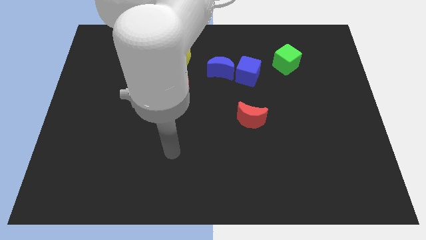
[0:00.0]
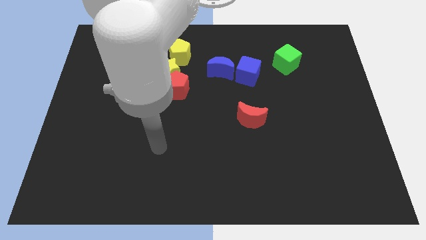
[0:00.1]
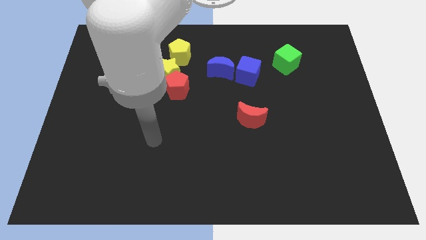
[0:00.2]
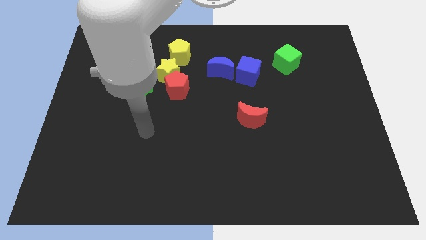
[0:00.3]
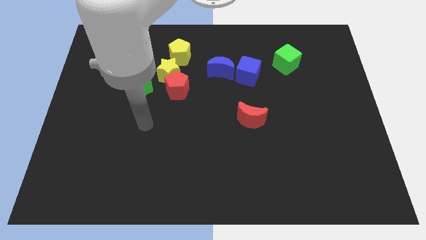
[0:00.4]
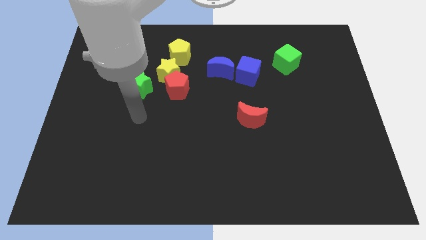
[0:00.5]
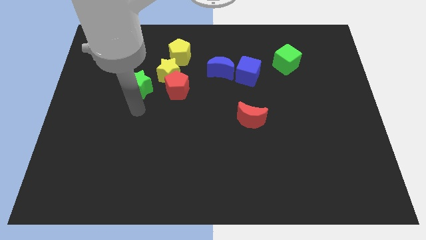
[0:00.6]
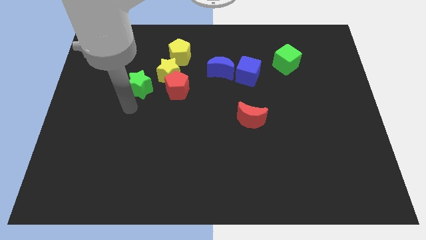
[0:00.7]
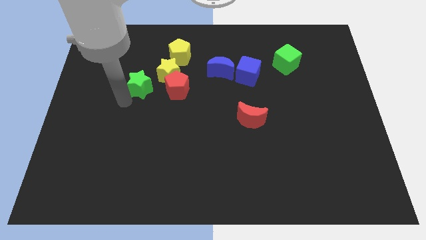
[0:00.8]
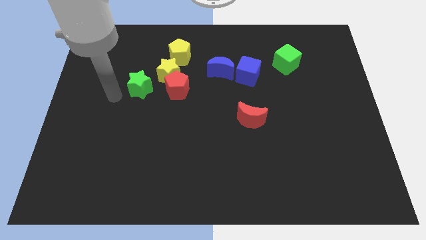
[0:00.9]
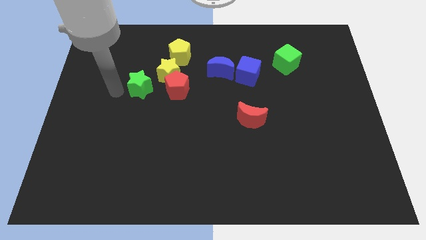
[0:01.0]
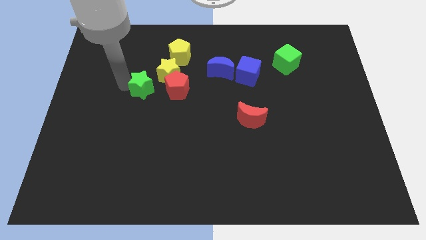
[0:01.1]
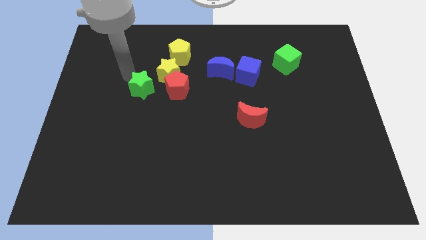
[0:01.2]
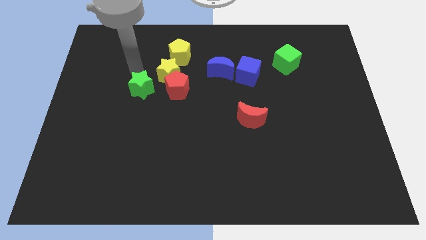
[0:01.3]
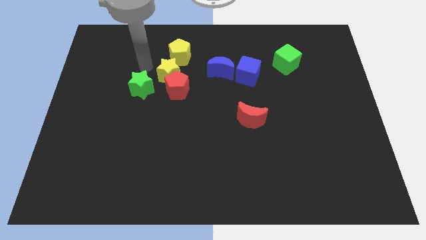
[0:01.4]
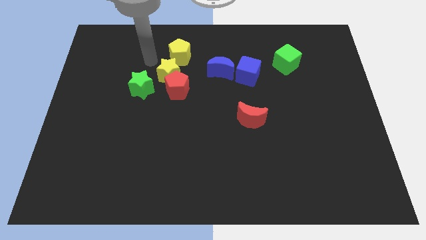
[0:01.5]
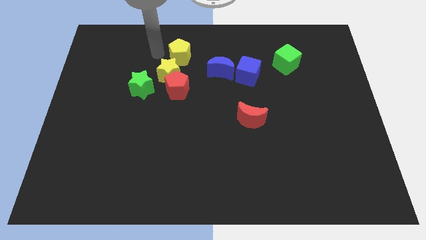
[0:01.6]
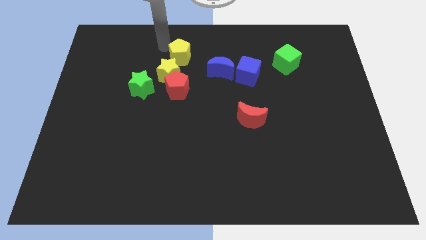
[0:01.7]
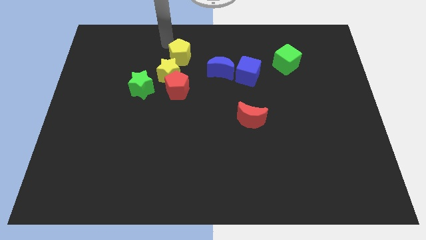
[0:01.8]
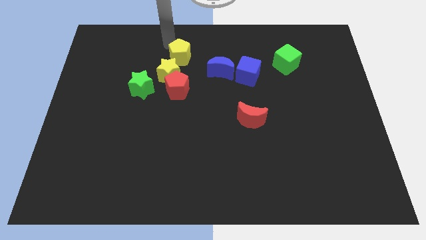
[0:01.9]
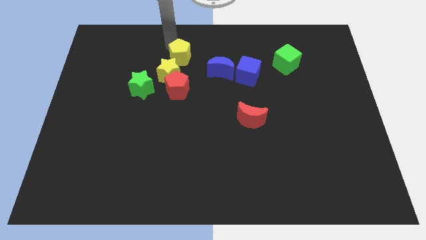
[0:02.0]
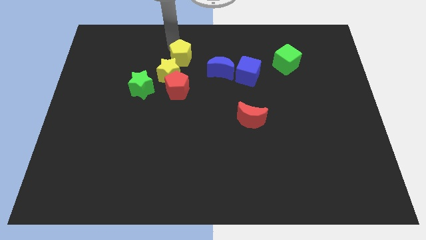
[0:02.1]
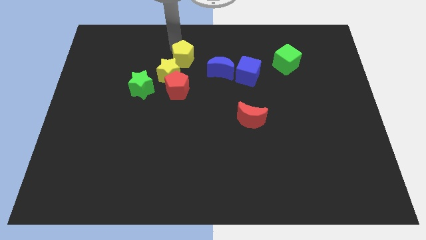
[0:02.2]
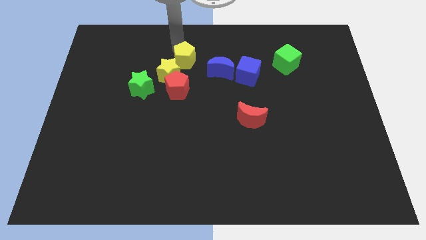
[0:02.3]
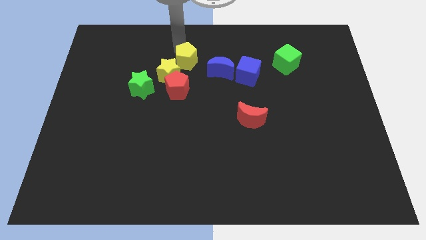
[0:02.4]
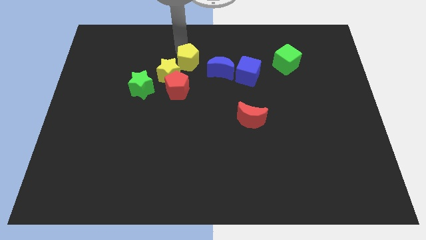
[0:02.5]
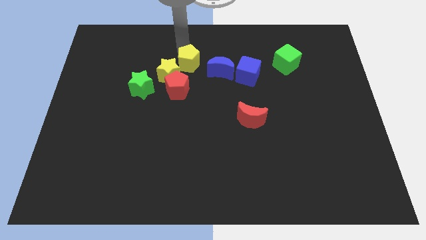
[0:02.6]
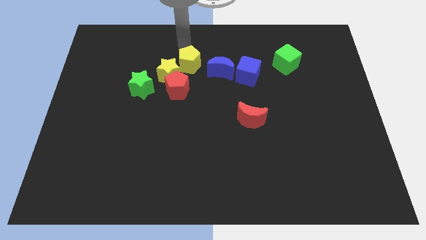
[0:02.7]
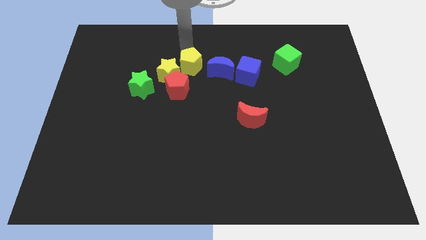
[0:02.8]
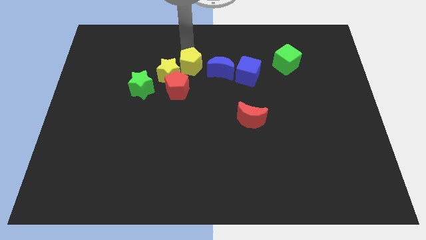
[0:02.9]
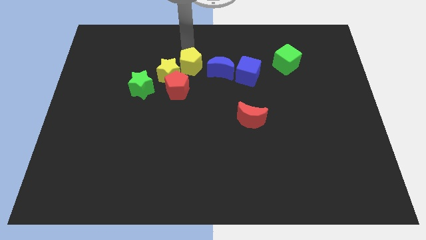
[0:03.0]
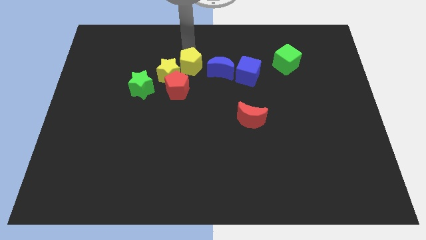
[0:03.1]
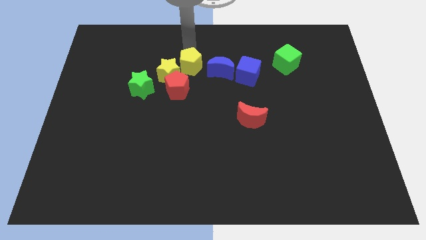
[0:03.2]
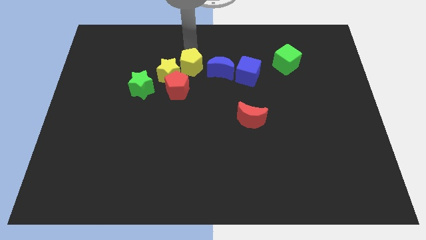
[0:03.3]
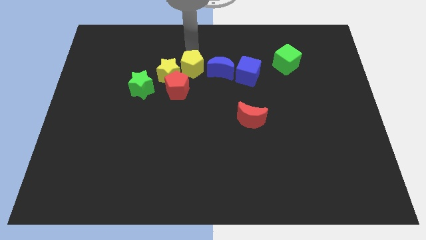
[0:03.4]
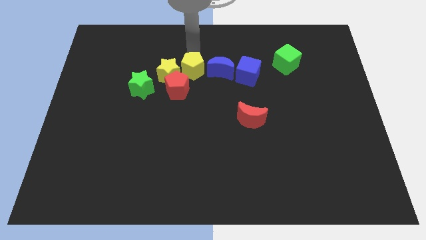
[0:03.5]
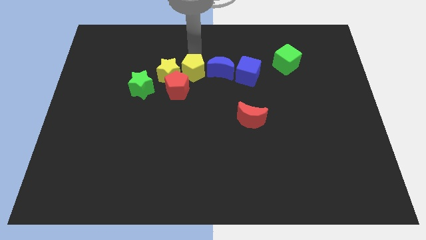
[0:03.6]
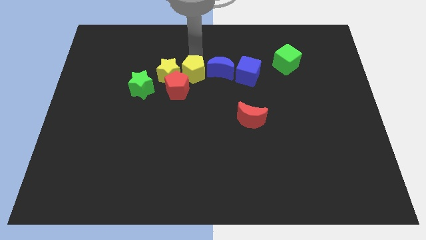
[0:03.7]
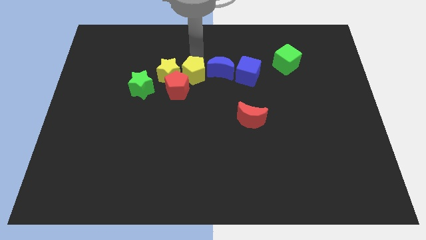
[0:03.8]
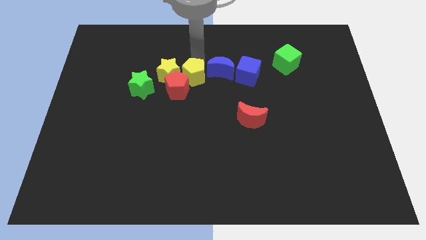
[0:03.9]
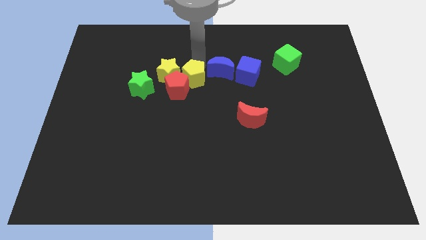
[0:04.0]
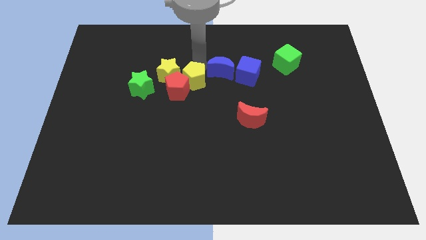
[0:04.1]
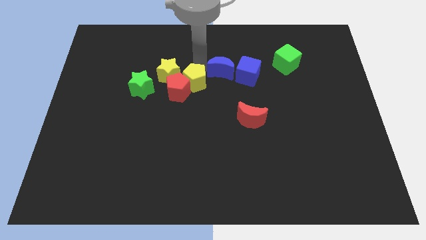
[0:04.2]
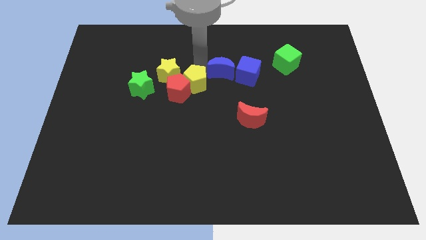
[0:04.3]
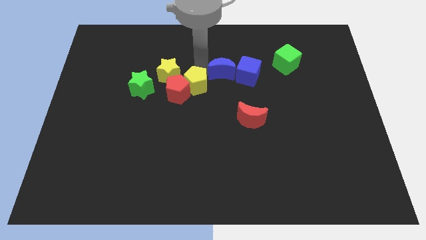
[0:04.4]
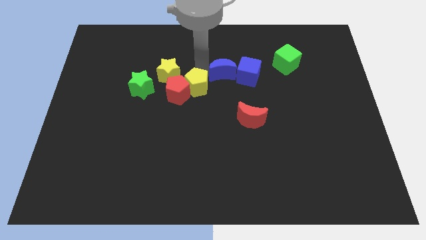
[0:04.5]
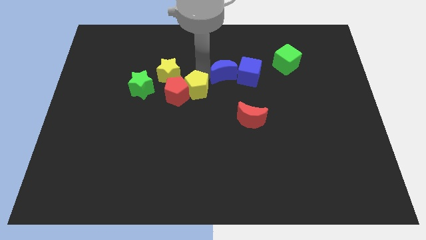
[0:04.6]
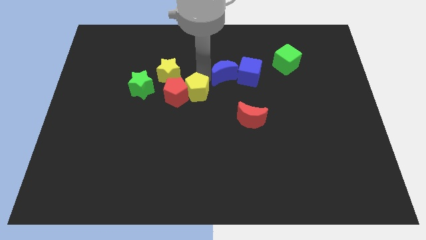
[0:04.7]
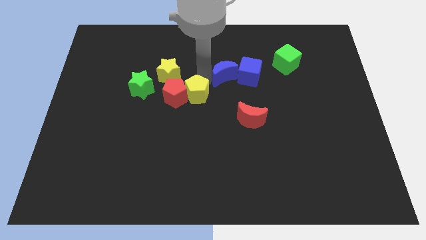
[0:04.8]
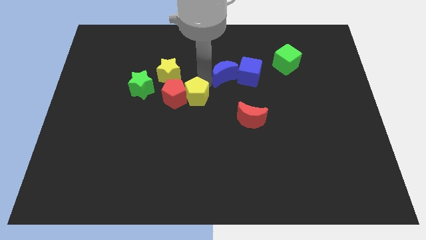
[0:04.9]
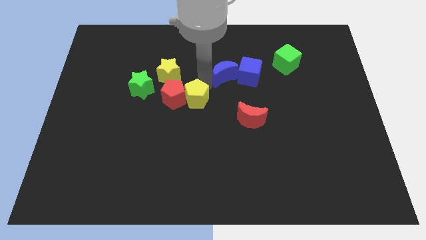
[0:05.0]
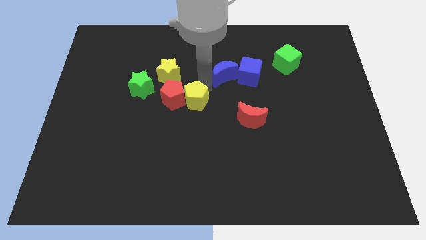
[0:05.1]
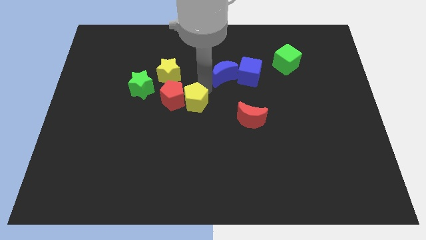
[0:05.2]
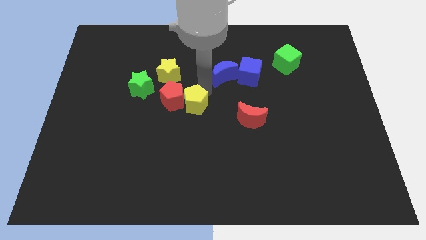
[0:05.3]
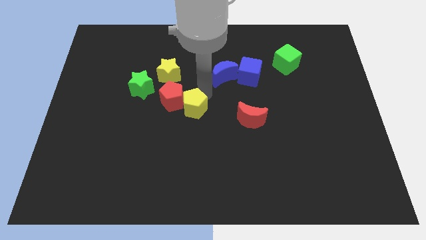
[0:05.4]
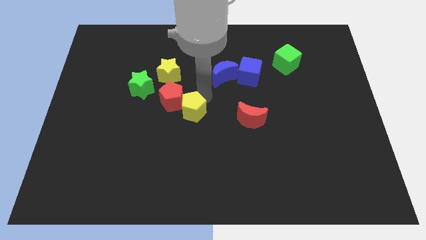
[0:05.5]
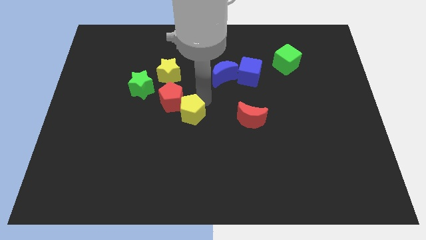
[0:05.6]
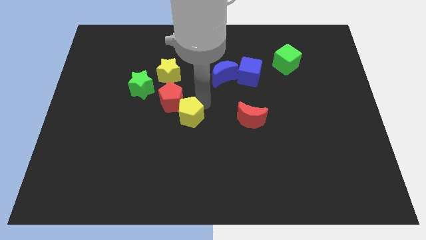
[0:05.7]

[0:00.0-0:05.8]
move the yellow pentagon to the bottom side of the red pentagon

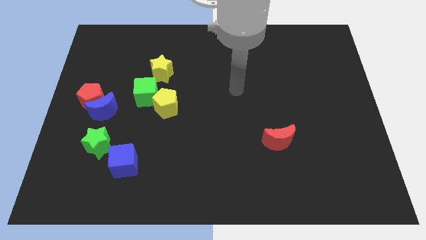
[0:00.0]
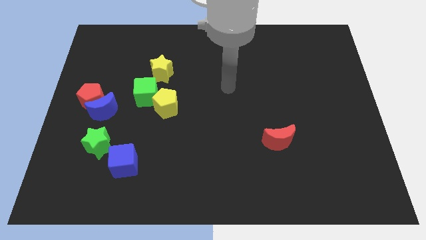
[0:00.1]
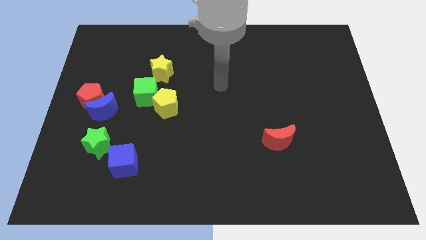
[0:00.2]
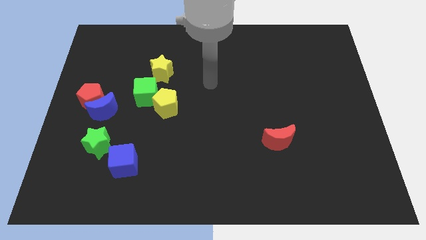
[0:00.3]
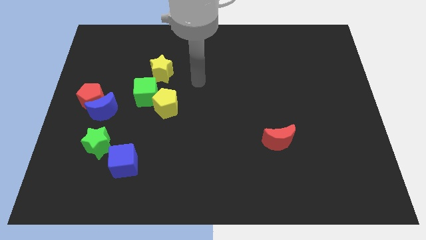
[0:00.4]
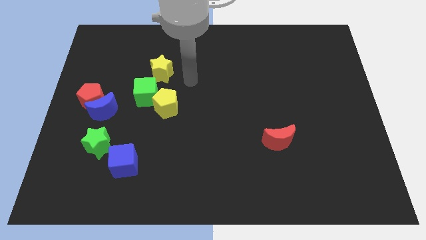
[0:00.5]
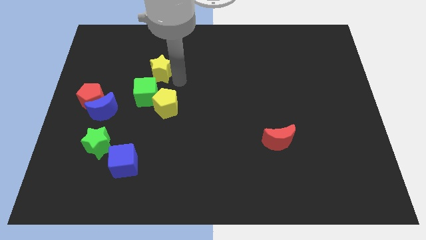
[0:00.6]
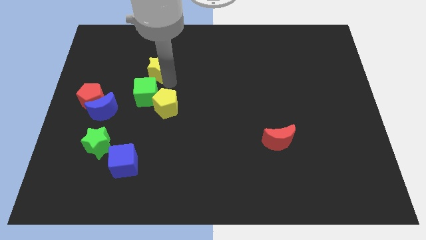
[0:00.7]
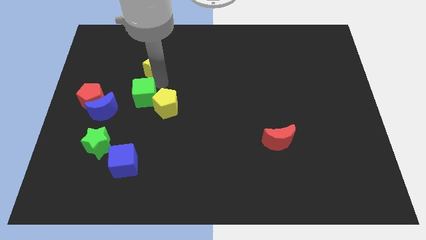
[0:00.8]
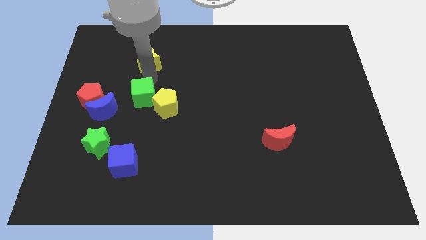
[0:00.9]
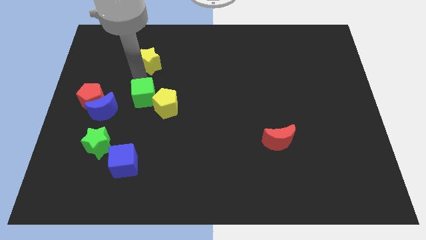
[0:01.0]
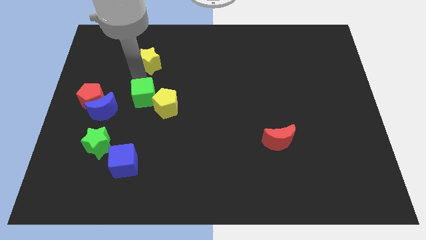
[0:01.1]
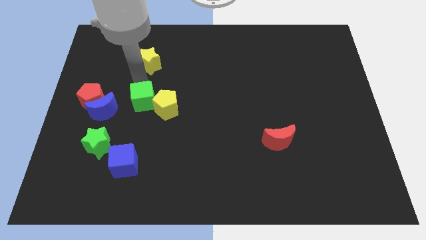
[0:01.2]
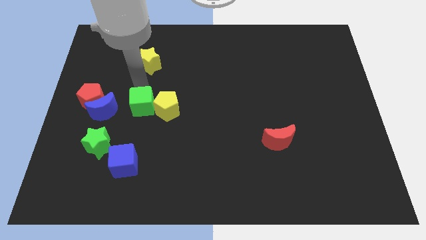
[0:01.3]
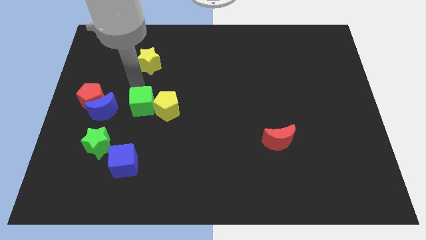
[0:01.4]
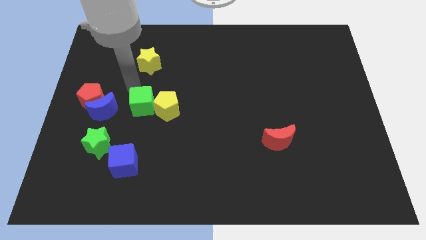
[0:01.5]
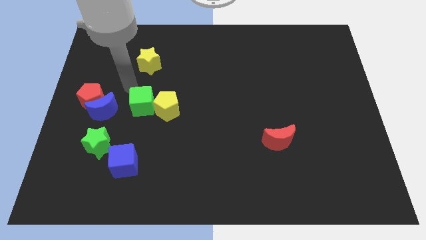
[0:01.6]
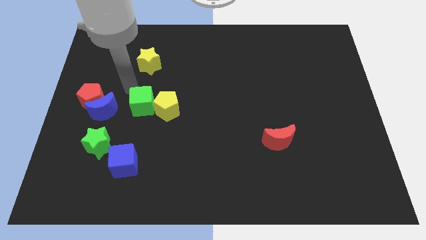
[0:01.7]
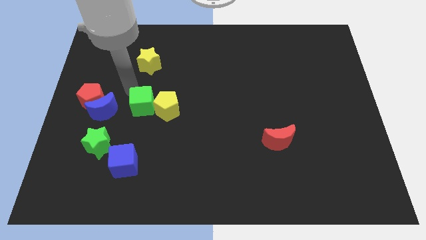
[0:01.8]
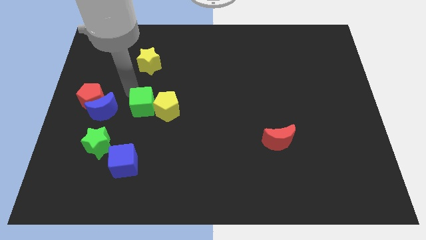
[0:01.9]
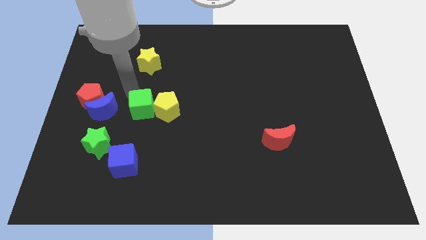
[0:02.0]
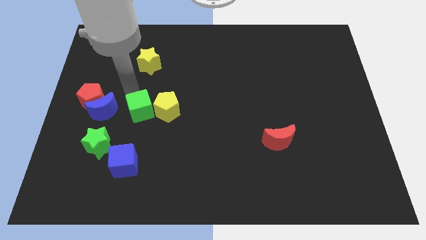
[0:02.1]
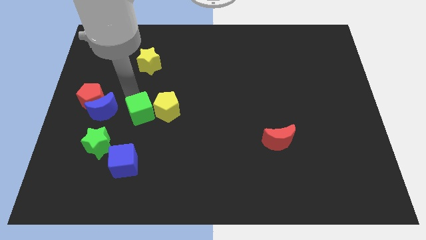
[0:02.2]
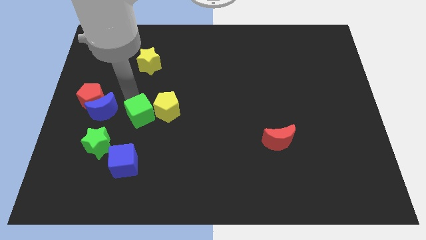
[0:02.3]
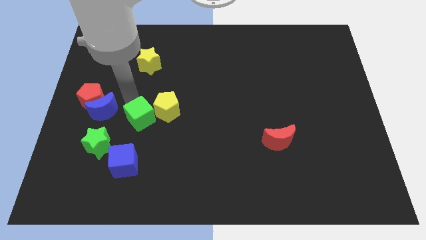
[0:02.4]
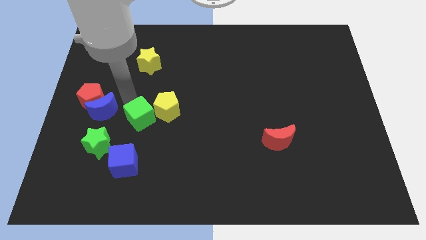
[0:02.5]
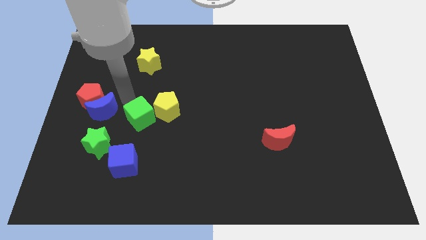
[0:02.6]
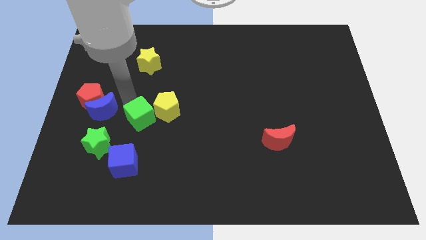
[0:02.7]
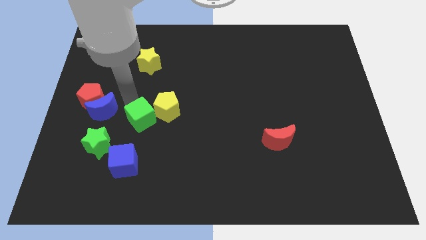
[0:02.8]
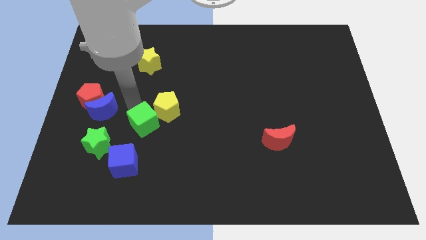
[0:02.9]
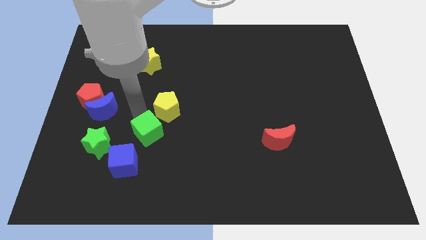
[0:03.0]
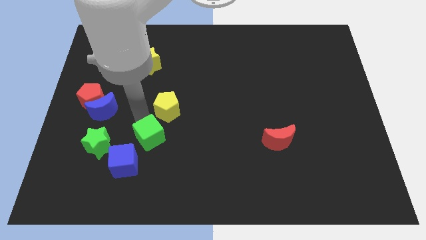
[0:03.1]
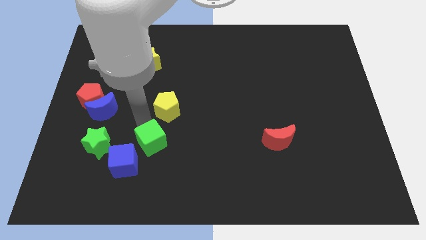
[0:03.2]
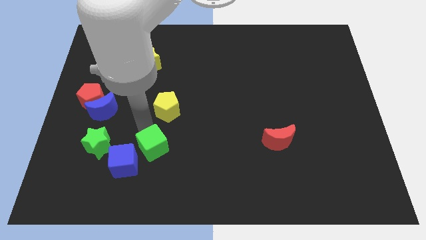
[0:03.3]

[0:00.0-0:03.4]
put the green cube just right of the blue cube
